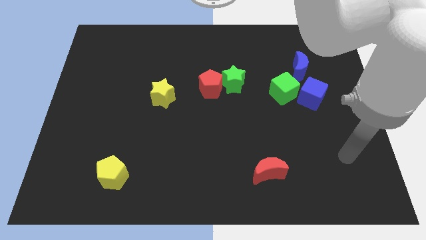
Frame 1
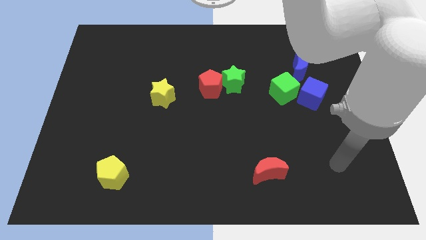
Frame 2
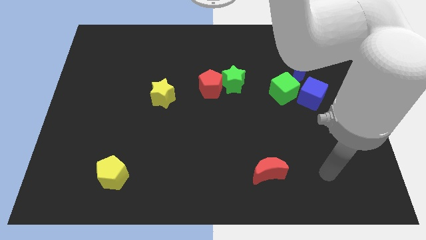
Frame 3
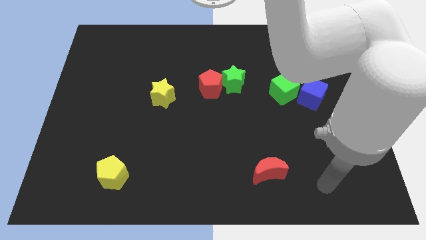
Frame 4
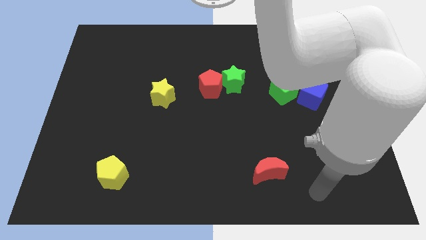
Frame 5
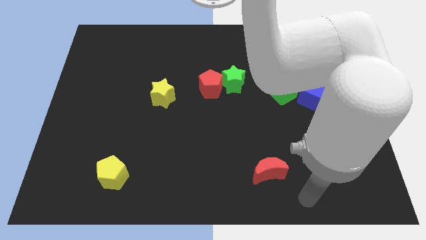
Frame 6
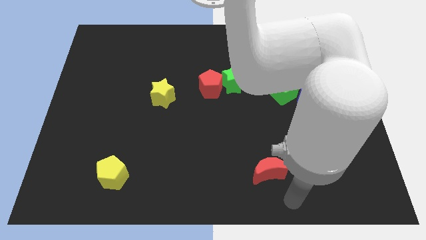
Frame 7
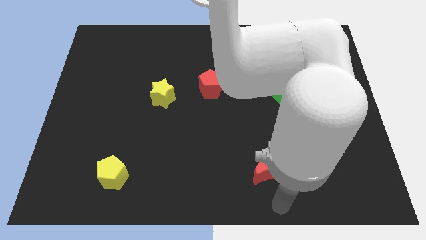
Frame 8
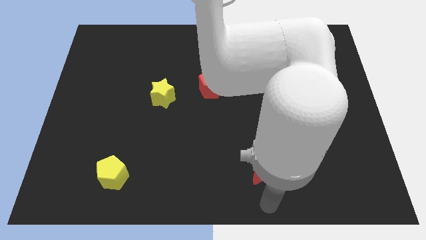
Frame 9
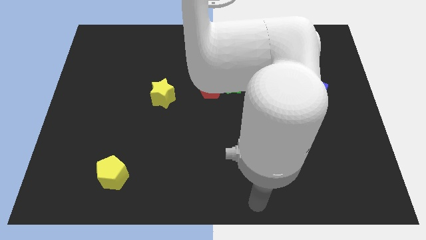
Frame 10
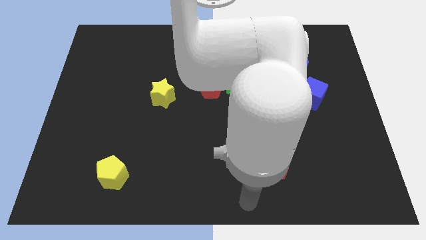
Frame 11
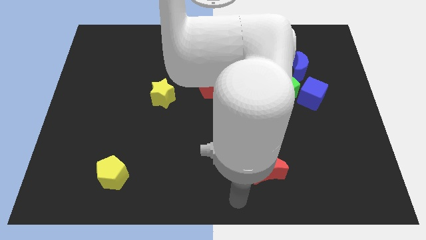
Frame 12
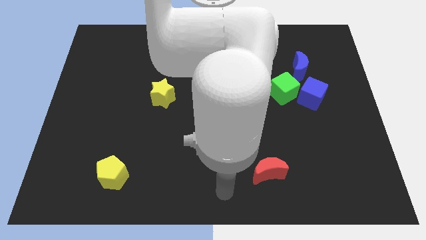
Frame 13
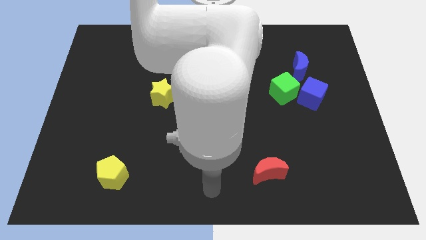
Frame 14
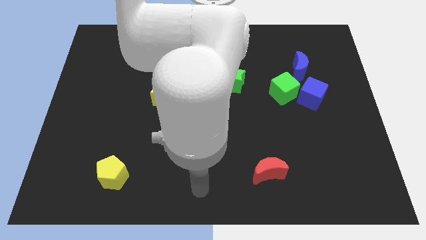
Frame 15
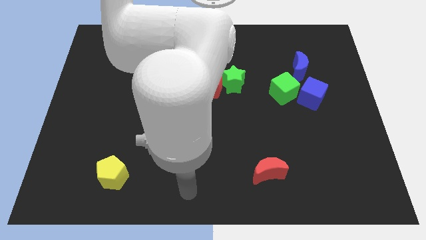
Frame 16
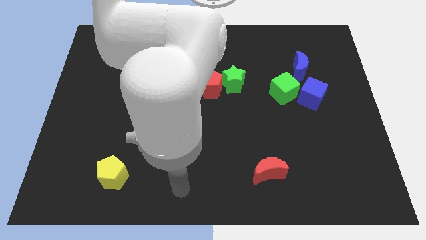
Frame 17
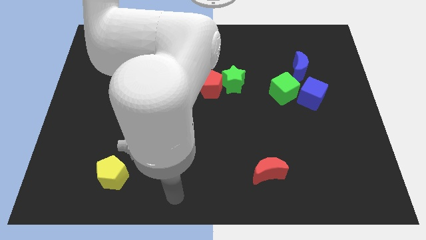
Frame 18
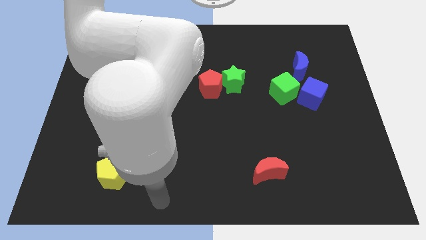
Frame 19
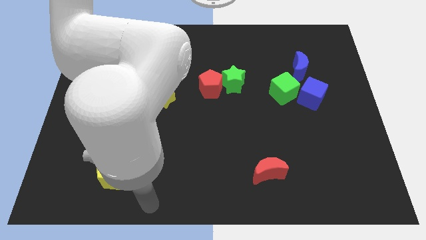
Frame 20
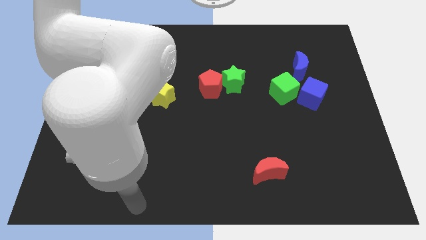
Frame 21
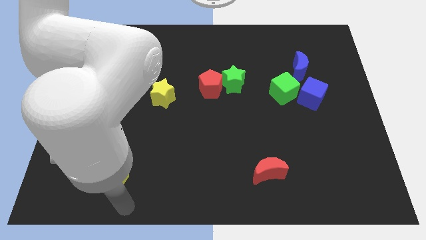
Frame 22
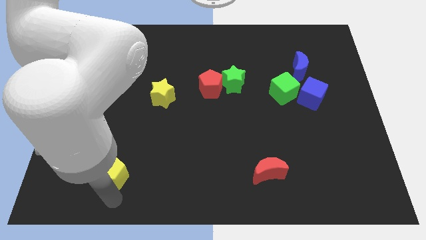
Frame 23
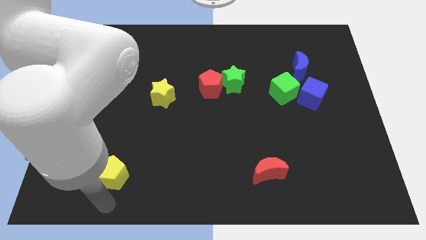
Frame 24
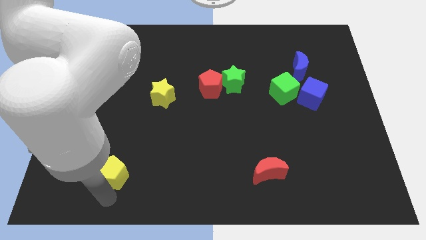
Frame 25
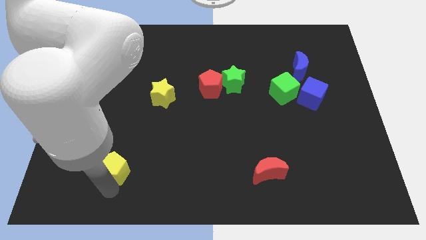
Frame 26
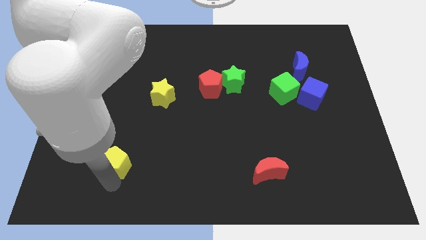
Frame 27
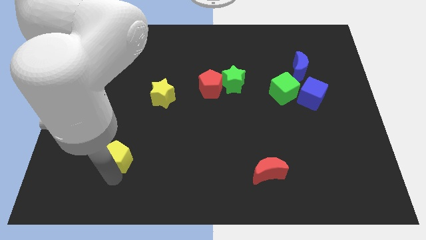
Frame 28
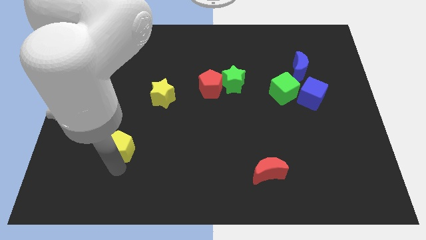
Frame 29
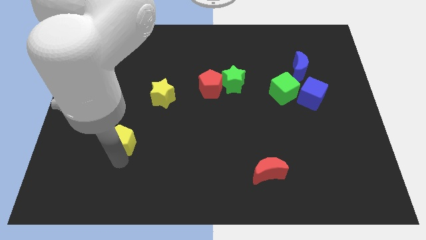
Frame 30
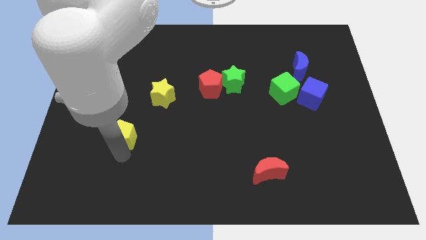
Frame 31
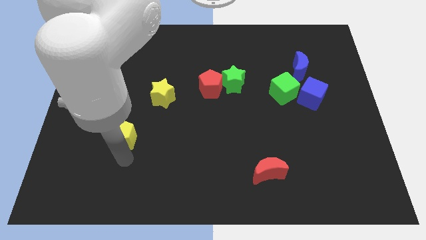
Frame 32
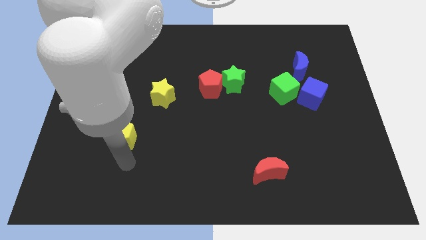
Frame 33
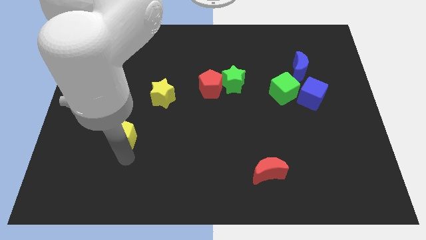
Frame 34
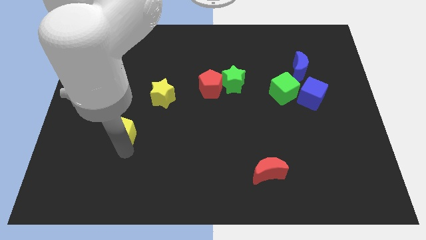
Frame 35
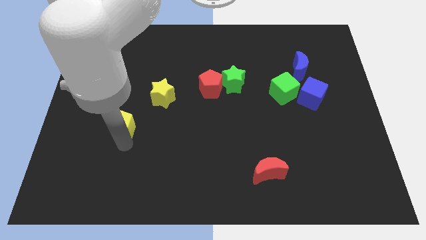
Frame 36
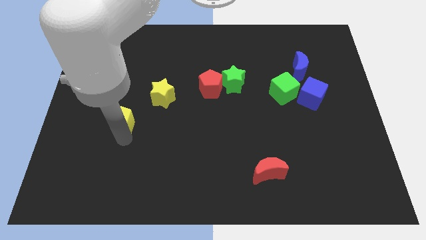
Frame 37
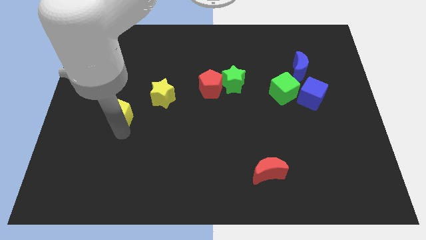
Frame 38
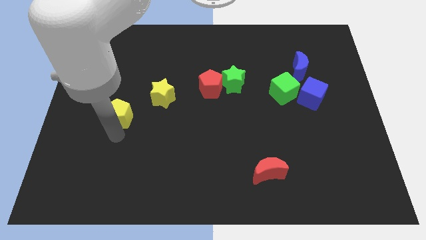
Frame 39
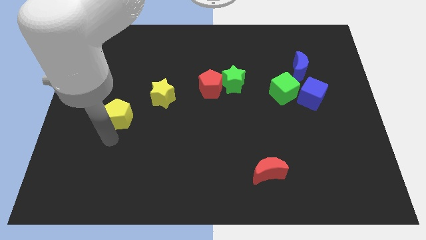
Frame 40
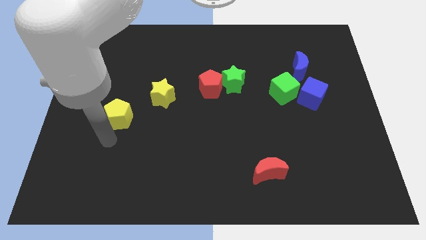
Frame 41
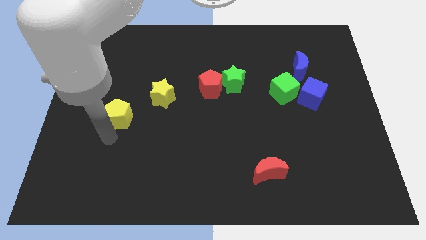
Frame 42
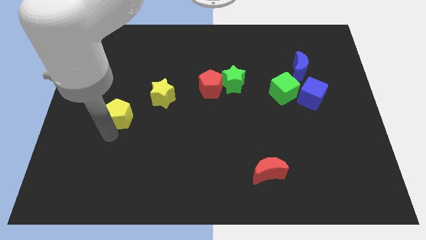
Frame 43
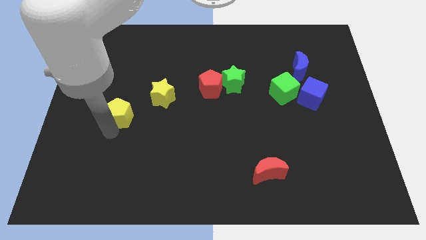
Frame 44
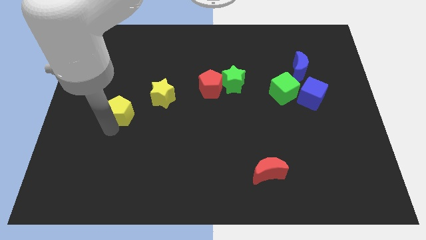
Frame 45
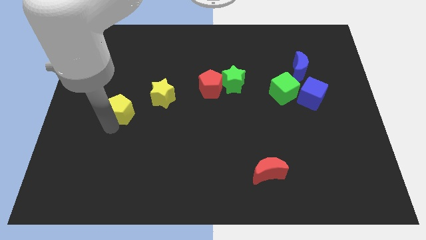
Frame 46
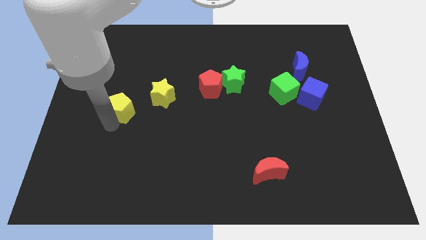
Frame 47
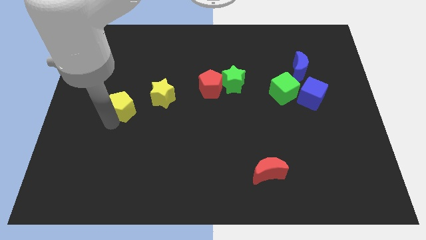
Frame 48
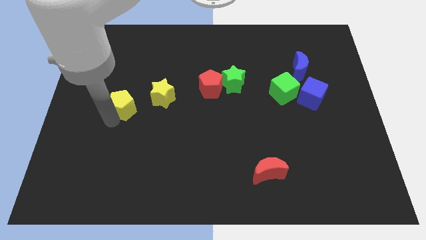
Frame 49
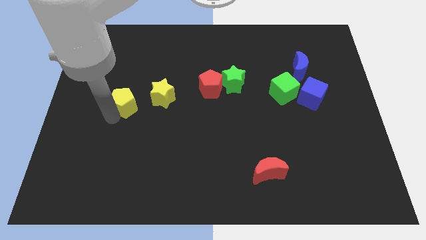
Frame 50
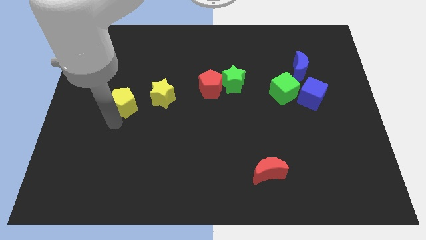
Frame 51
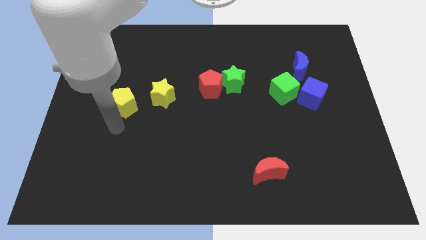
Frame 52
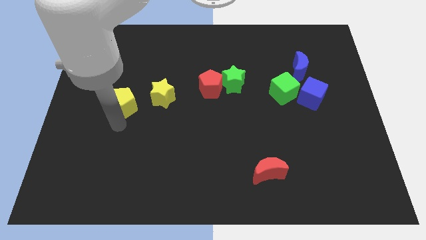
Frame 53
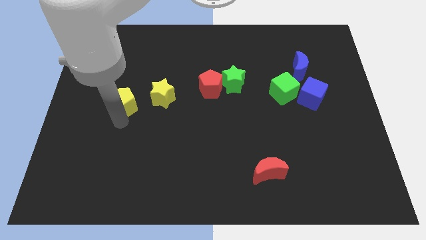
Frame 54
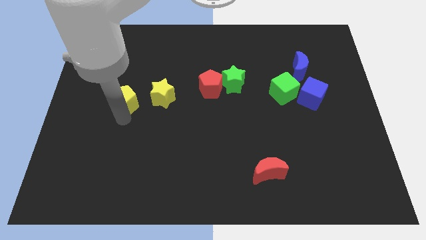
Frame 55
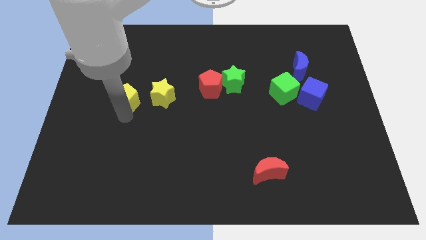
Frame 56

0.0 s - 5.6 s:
move the yellow pentagon up

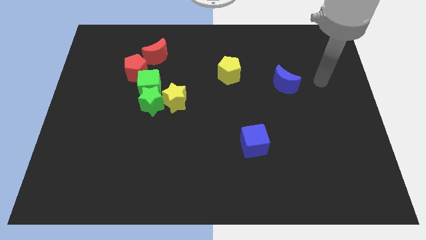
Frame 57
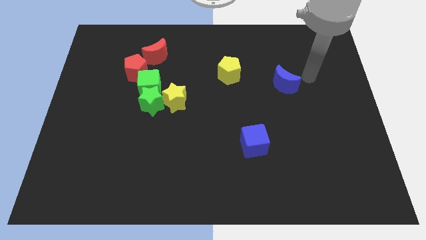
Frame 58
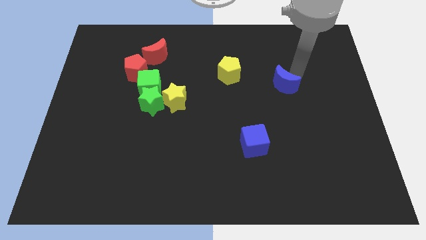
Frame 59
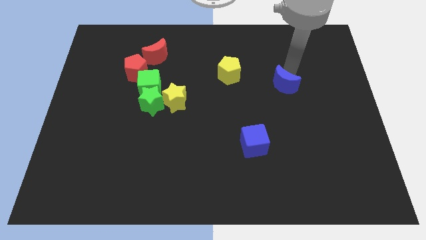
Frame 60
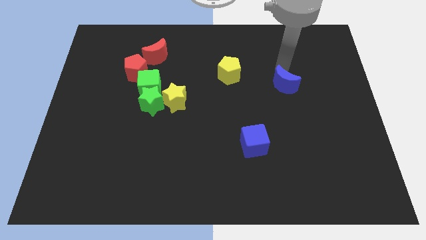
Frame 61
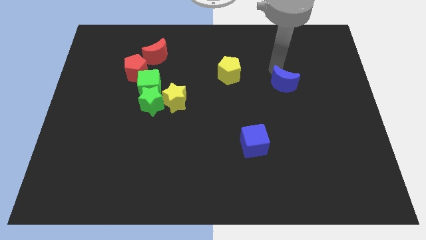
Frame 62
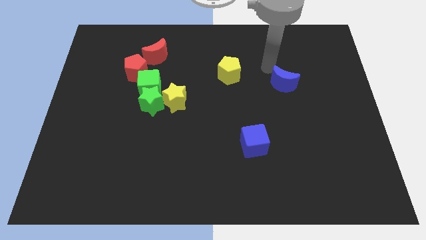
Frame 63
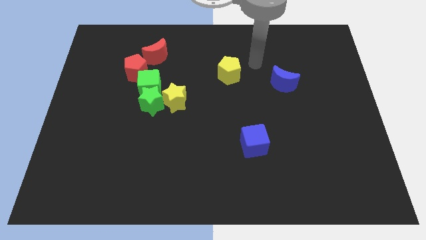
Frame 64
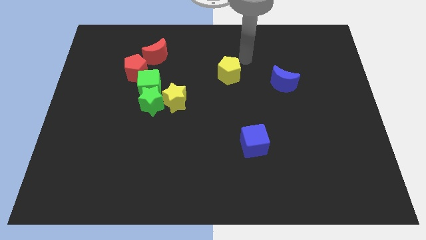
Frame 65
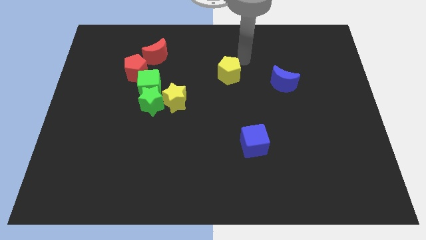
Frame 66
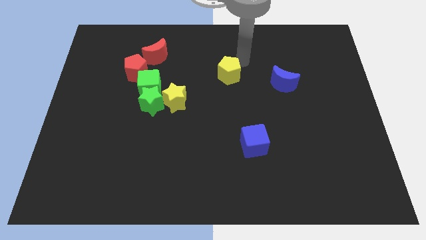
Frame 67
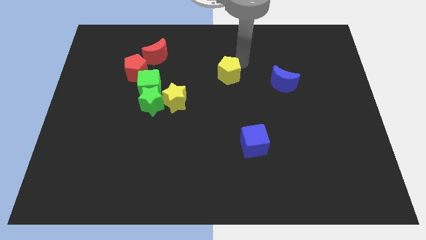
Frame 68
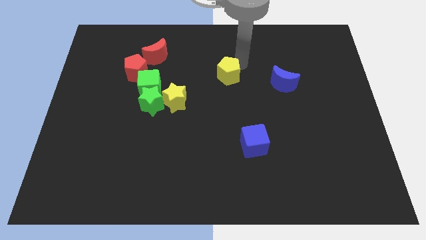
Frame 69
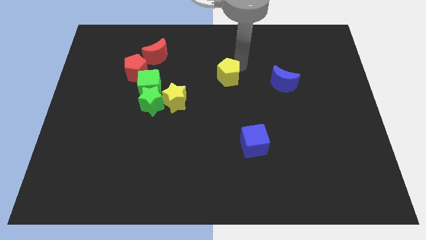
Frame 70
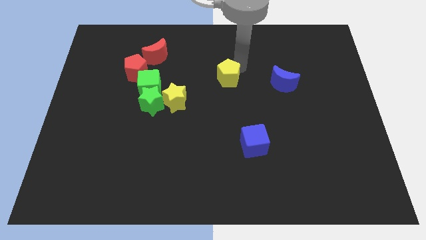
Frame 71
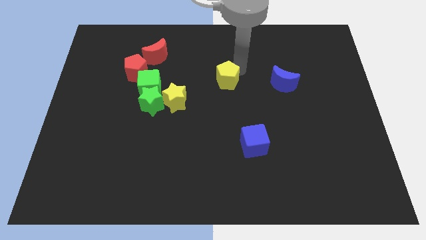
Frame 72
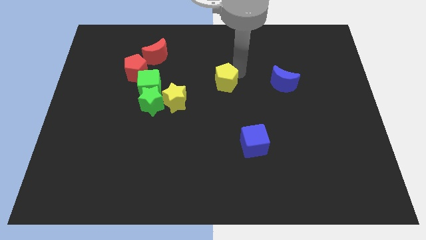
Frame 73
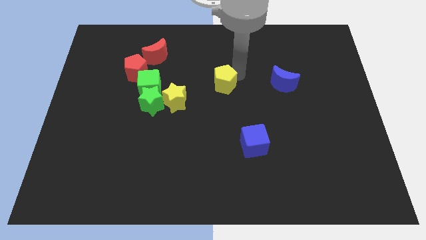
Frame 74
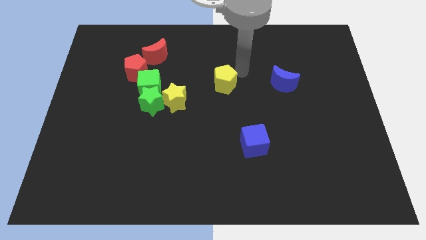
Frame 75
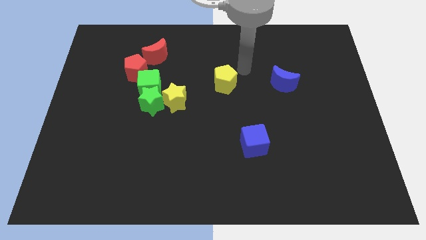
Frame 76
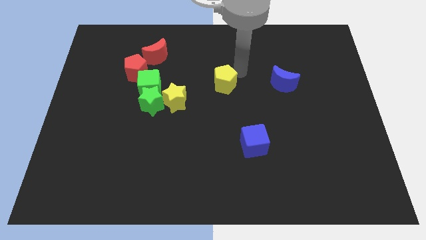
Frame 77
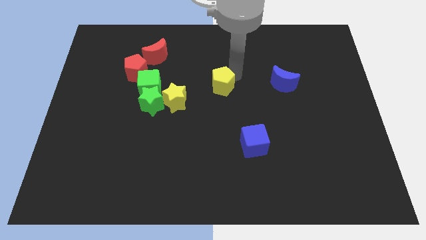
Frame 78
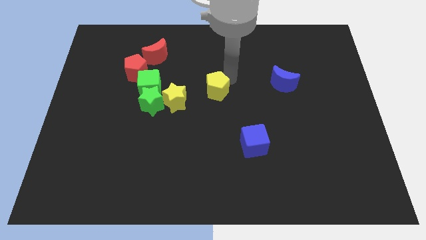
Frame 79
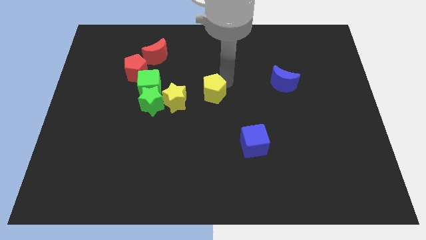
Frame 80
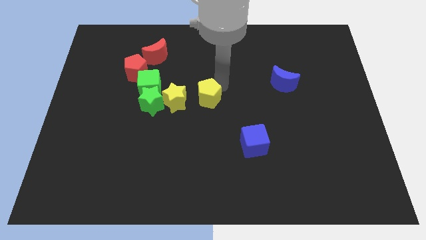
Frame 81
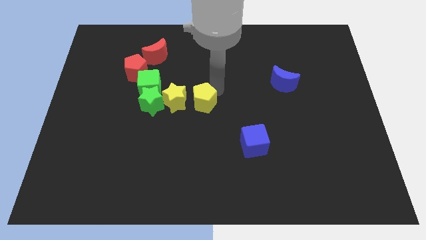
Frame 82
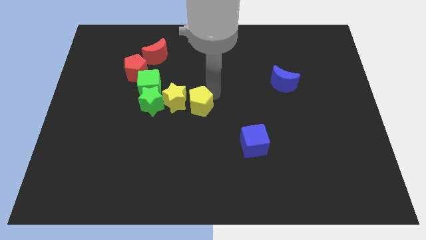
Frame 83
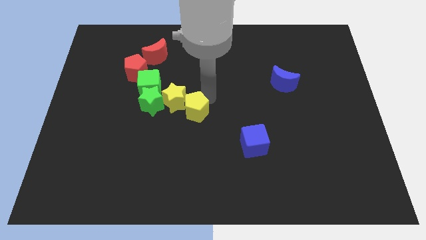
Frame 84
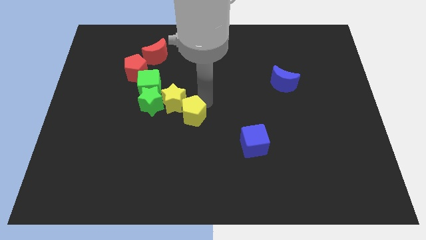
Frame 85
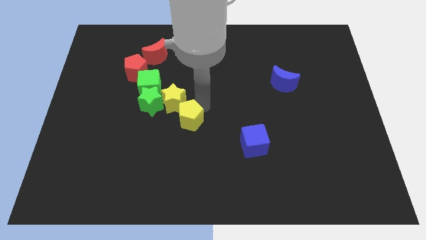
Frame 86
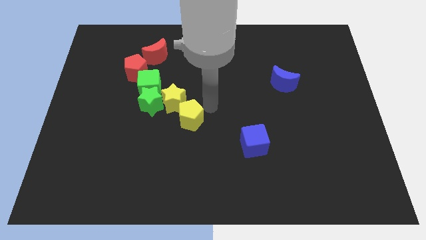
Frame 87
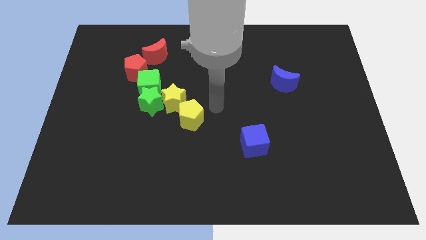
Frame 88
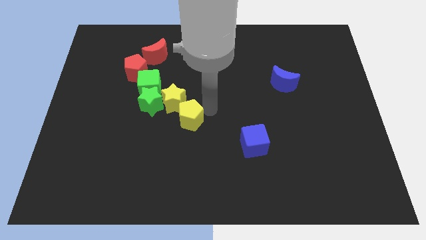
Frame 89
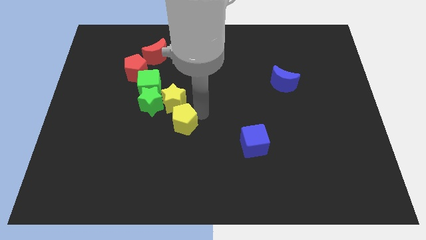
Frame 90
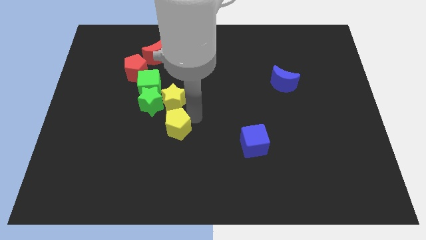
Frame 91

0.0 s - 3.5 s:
slide the yellow pentagon downwards and then to the left
